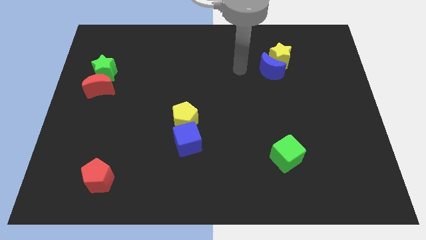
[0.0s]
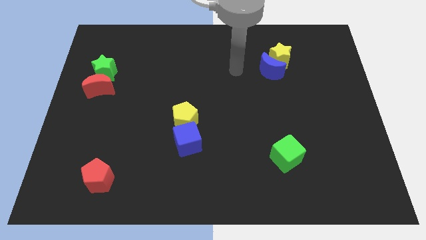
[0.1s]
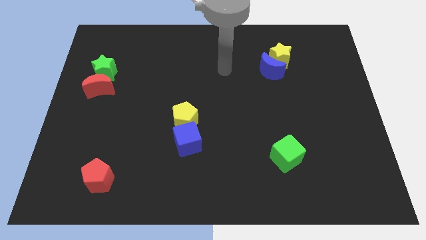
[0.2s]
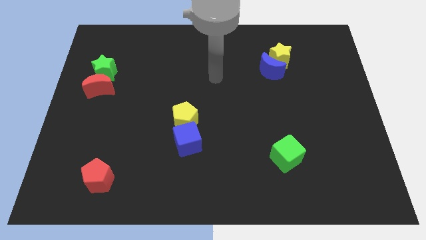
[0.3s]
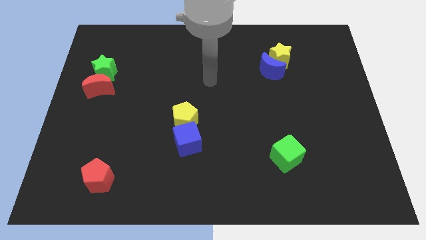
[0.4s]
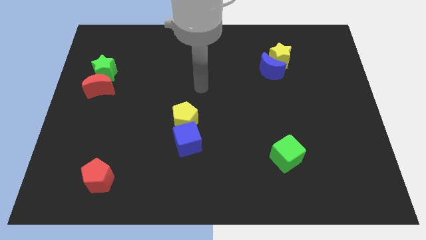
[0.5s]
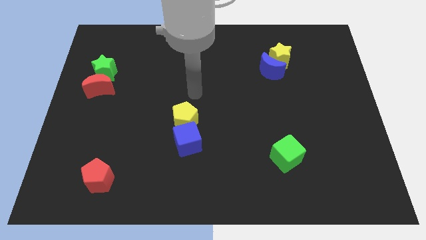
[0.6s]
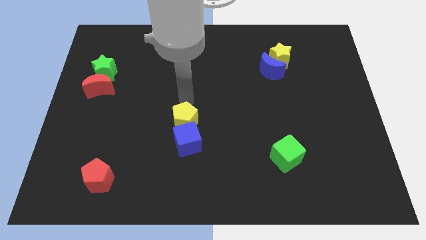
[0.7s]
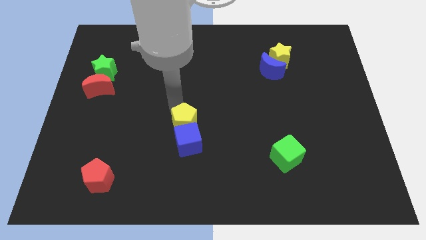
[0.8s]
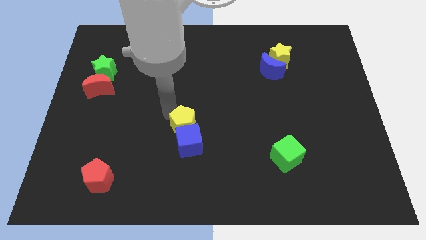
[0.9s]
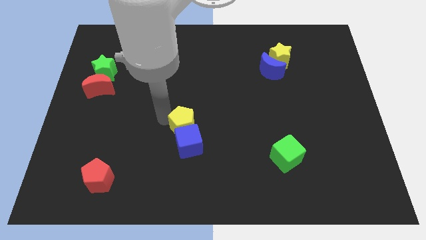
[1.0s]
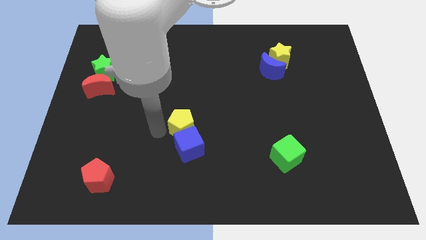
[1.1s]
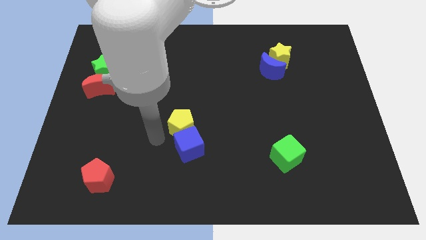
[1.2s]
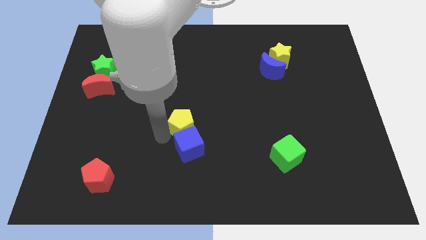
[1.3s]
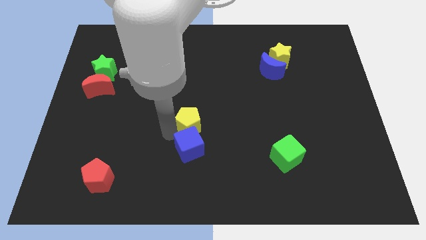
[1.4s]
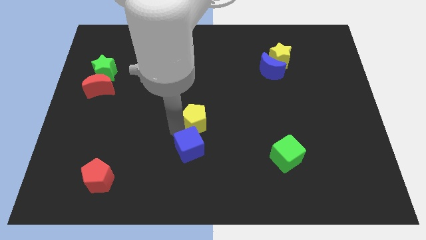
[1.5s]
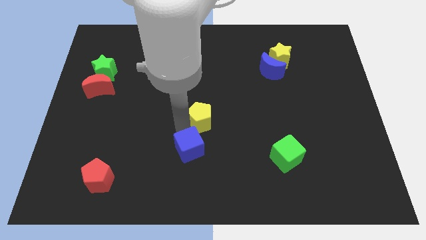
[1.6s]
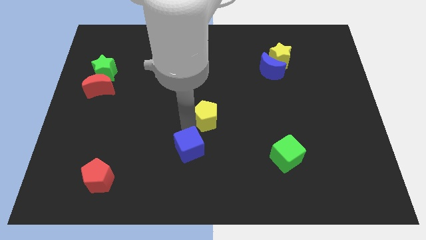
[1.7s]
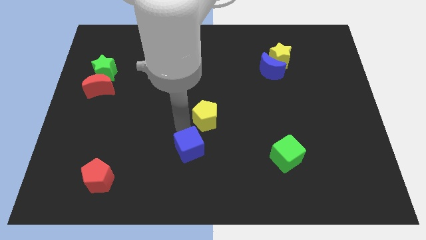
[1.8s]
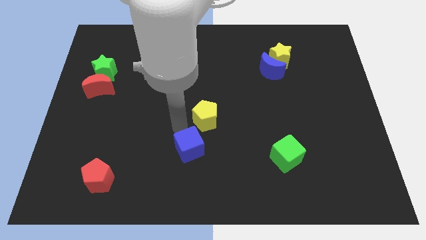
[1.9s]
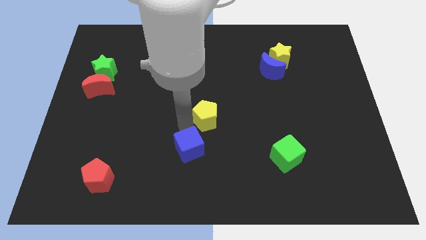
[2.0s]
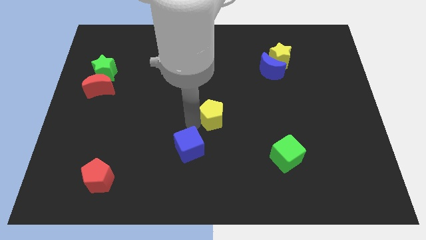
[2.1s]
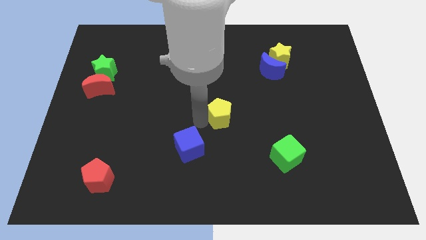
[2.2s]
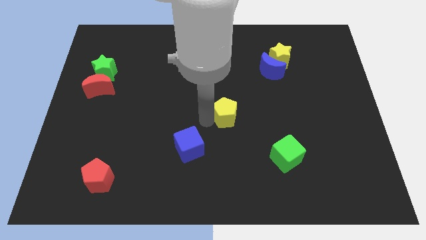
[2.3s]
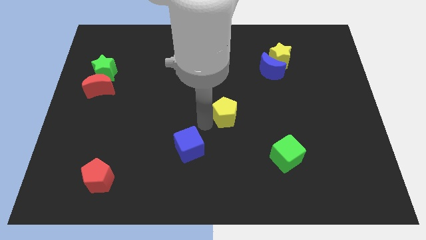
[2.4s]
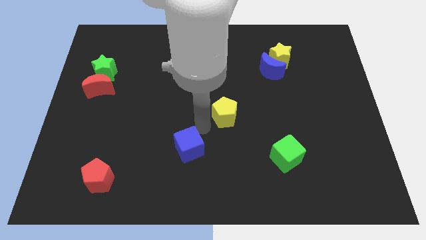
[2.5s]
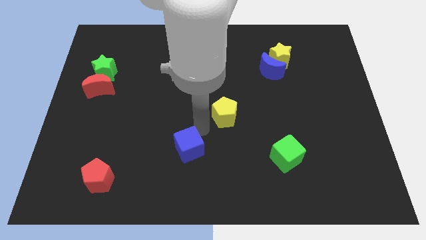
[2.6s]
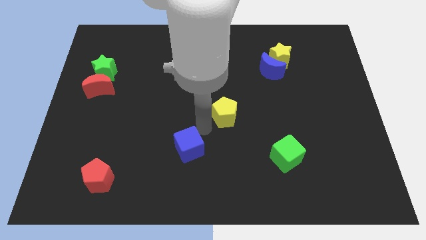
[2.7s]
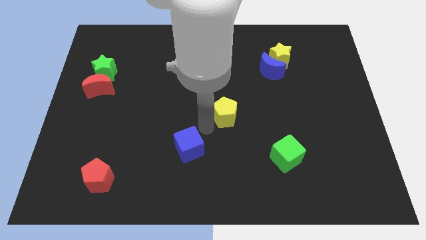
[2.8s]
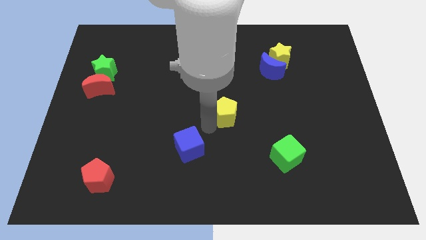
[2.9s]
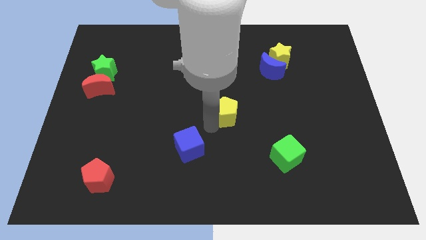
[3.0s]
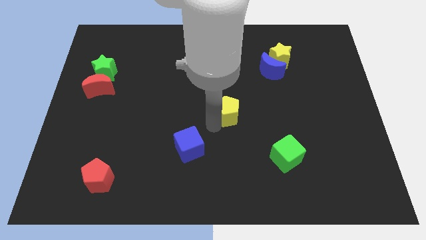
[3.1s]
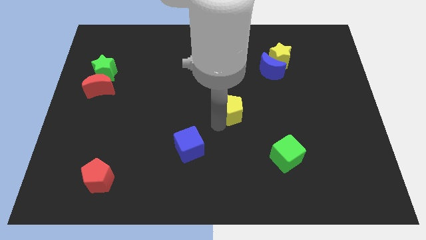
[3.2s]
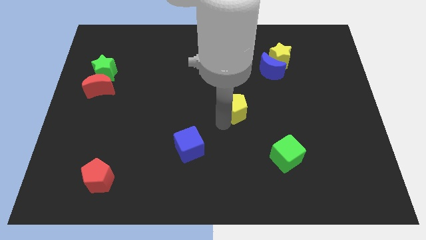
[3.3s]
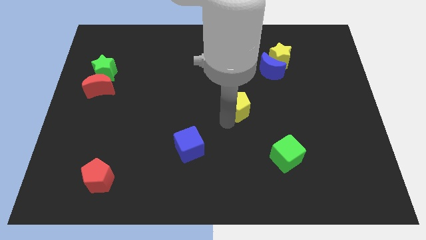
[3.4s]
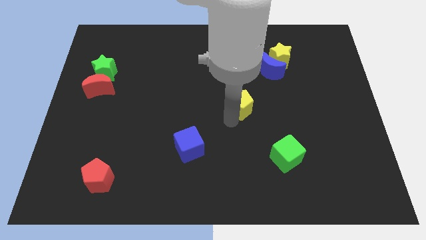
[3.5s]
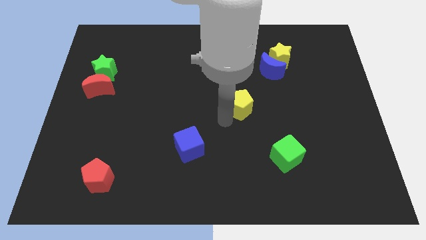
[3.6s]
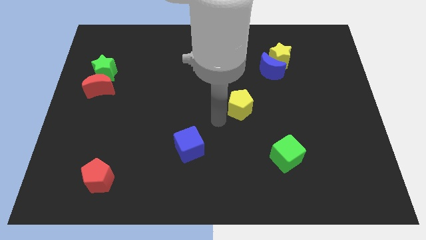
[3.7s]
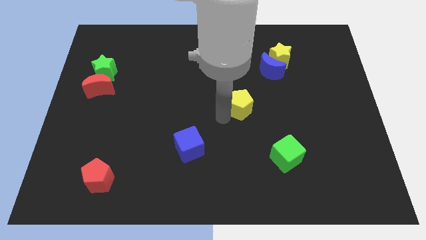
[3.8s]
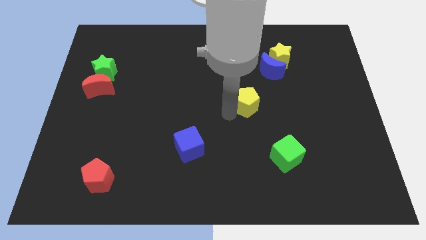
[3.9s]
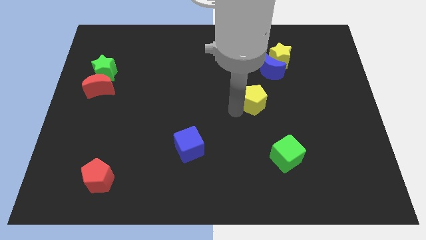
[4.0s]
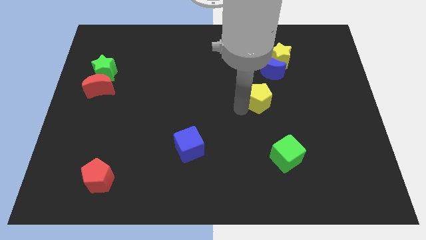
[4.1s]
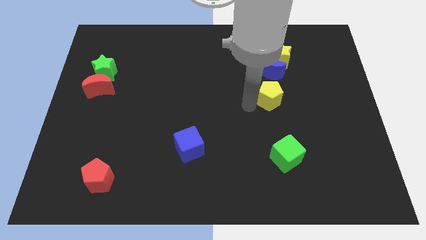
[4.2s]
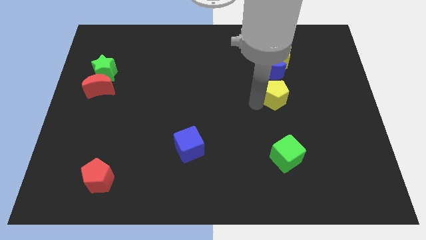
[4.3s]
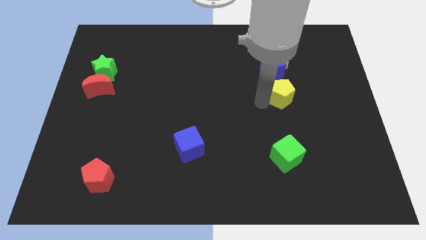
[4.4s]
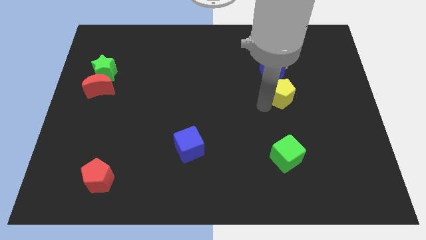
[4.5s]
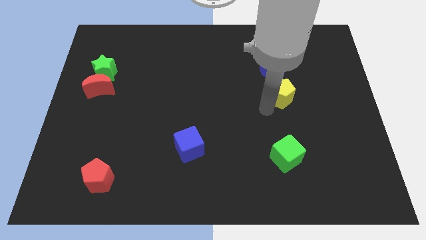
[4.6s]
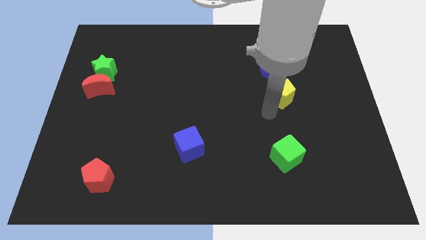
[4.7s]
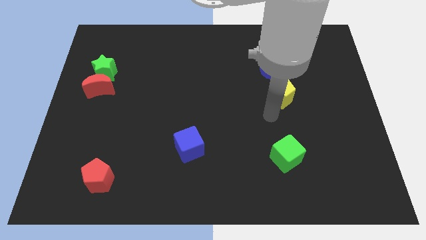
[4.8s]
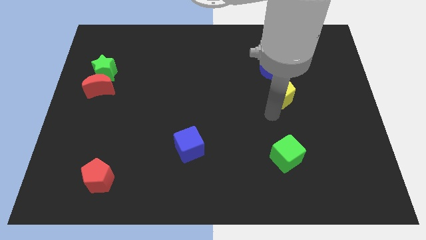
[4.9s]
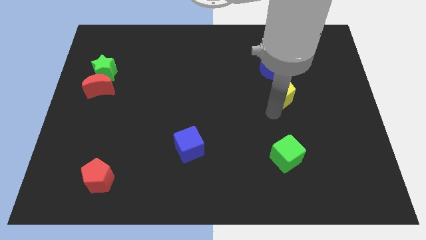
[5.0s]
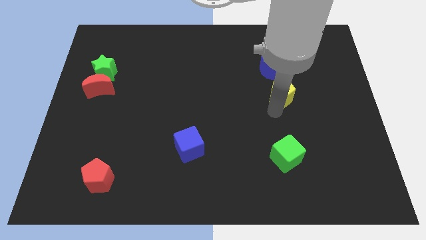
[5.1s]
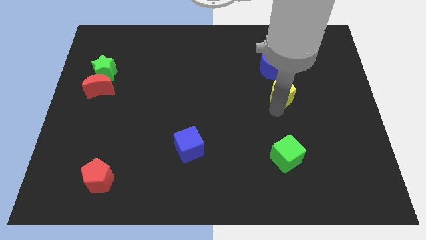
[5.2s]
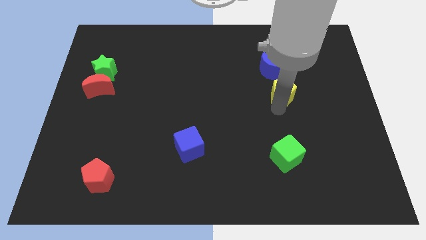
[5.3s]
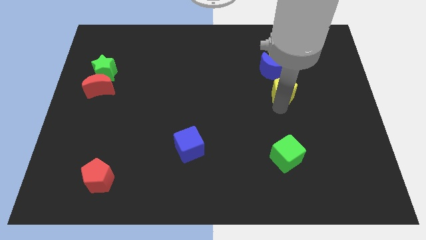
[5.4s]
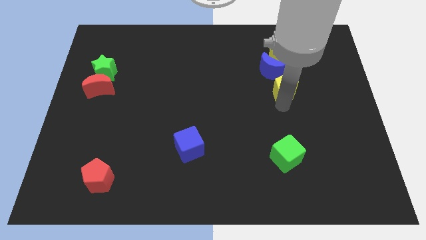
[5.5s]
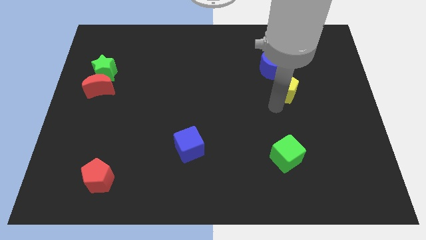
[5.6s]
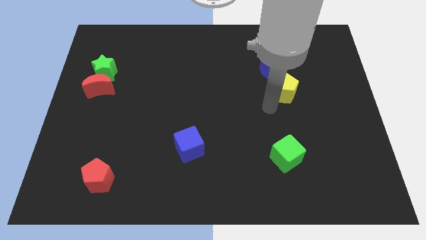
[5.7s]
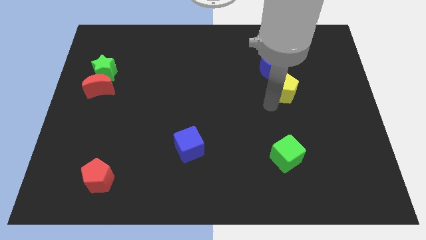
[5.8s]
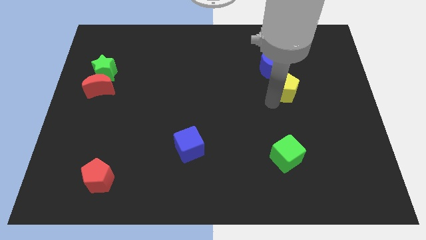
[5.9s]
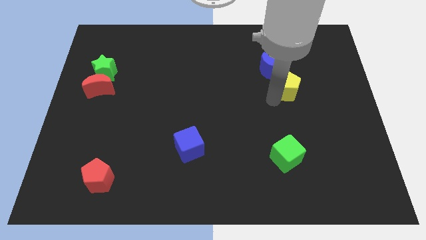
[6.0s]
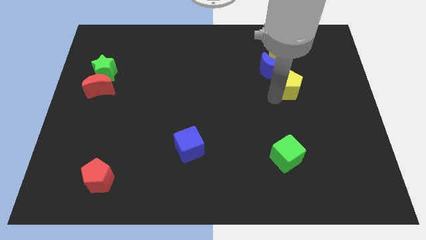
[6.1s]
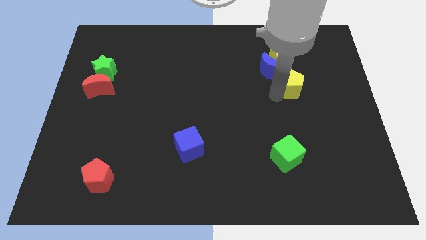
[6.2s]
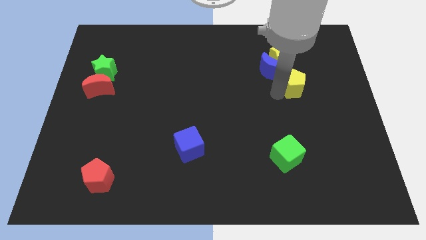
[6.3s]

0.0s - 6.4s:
move the yellow pentagon to the bottom right side of the yellow star
